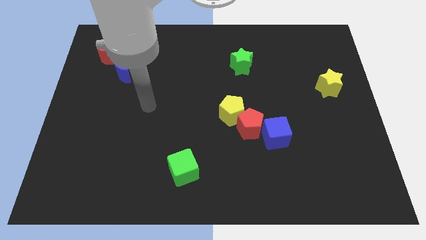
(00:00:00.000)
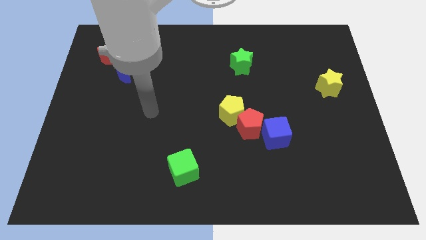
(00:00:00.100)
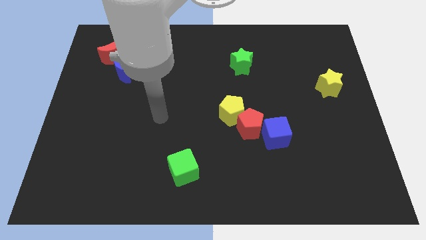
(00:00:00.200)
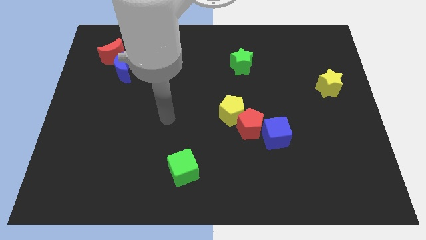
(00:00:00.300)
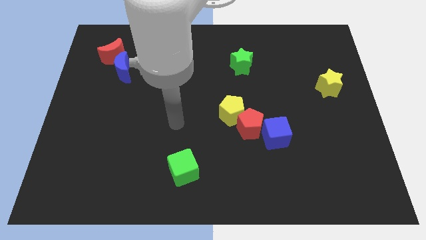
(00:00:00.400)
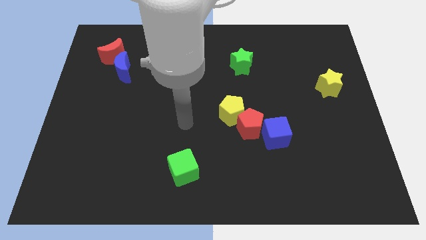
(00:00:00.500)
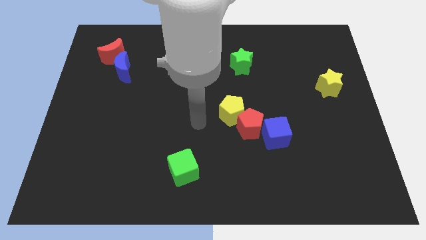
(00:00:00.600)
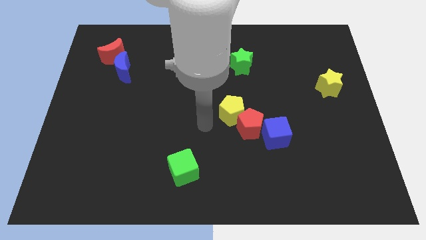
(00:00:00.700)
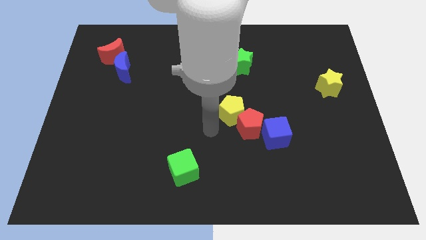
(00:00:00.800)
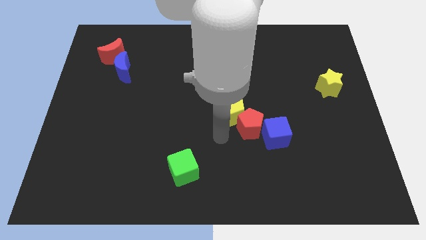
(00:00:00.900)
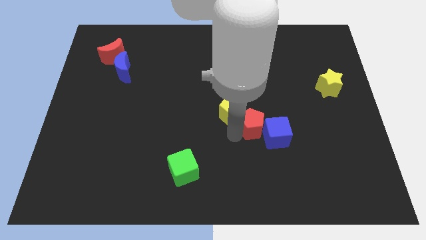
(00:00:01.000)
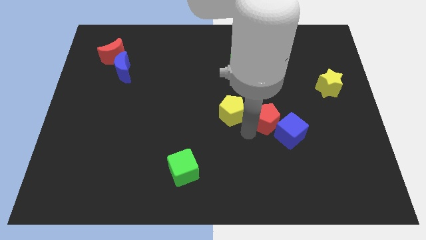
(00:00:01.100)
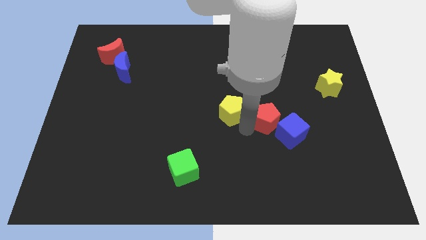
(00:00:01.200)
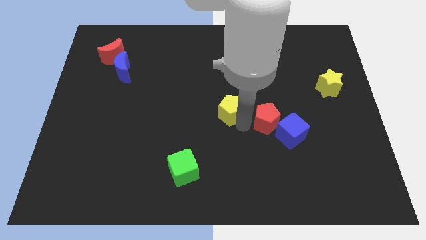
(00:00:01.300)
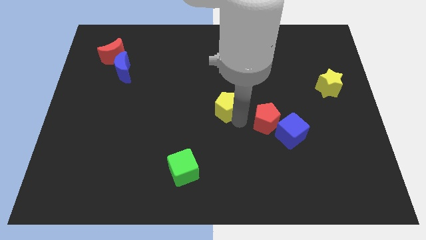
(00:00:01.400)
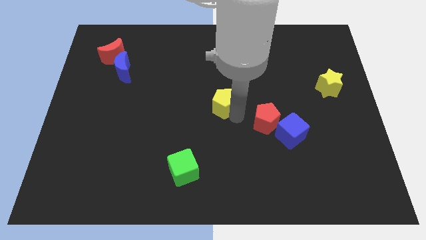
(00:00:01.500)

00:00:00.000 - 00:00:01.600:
pull the yellow pentagon apart from the red pentagon
